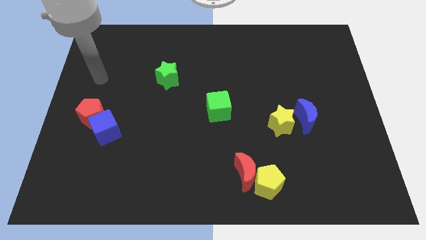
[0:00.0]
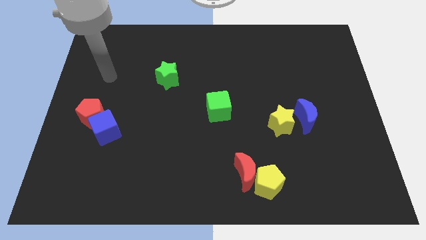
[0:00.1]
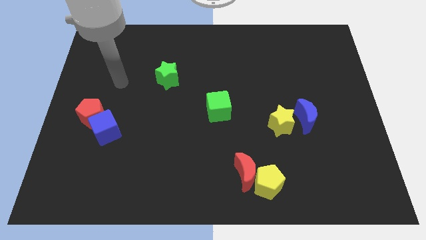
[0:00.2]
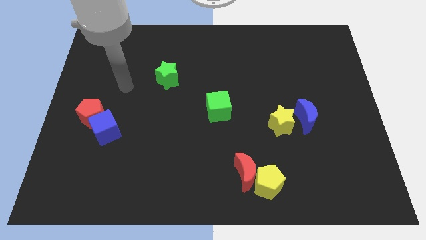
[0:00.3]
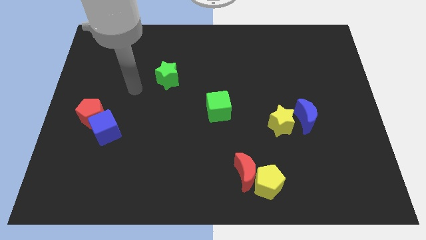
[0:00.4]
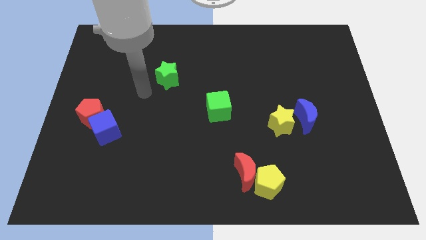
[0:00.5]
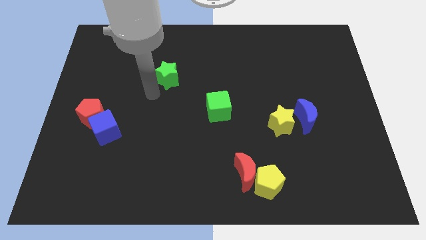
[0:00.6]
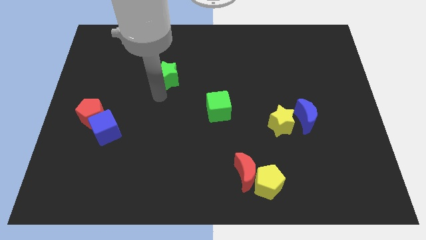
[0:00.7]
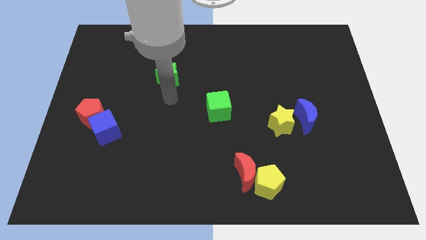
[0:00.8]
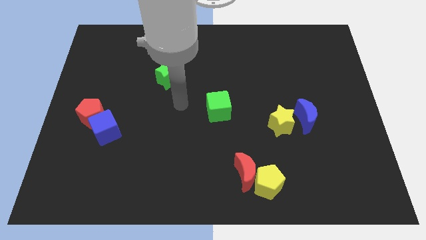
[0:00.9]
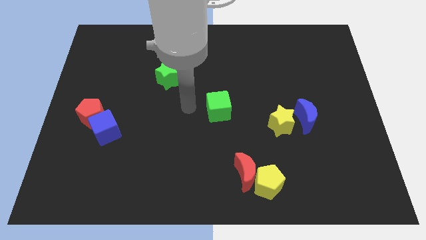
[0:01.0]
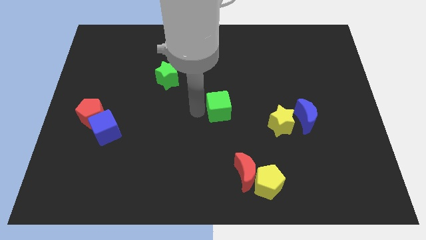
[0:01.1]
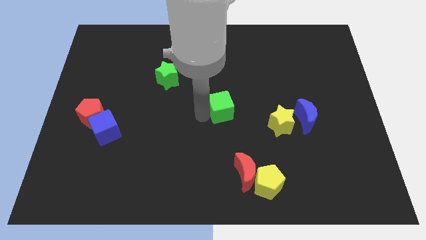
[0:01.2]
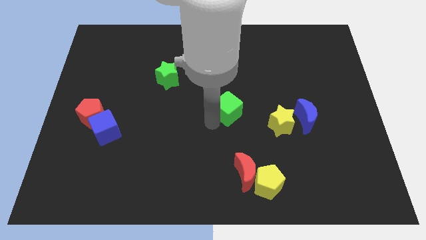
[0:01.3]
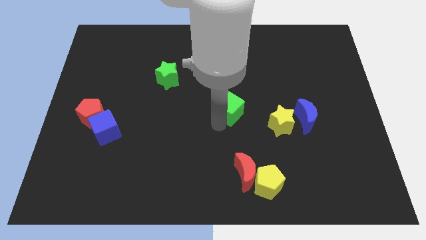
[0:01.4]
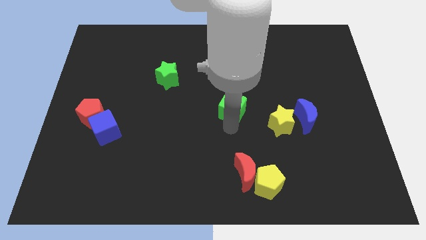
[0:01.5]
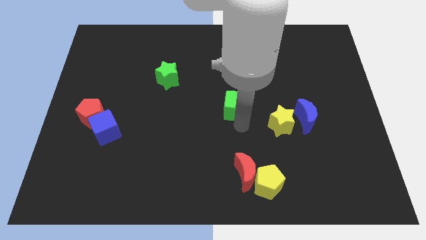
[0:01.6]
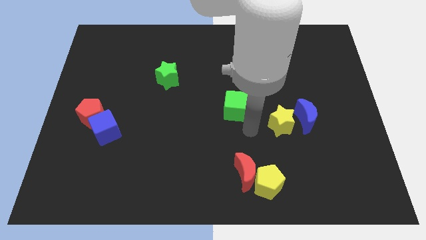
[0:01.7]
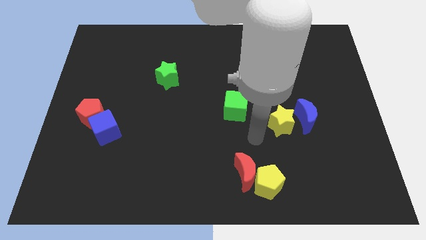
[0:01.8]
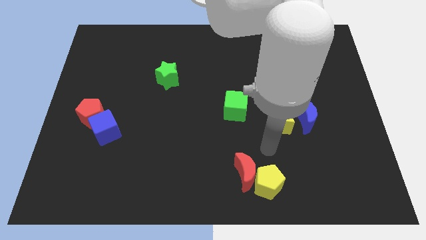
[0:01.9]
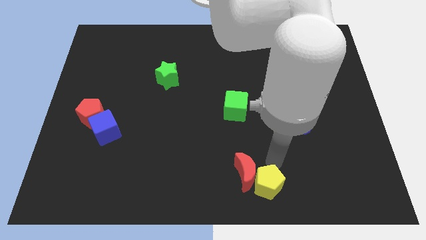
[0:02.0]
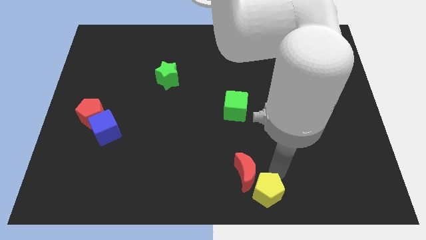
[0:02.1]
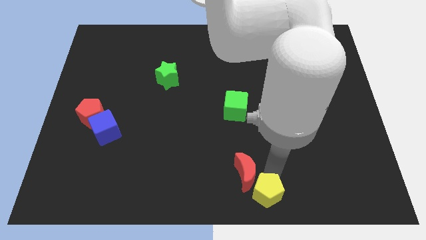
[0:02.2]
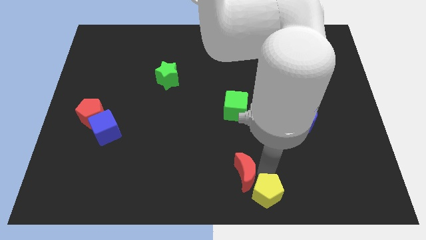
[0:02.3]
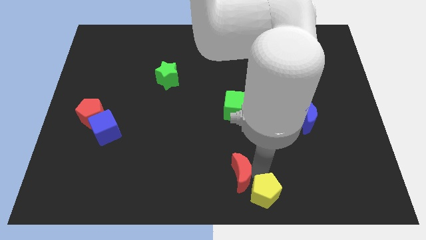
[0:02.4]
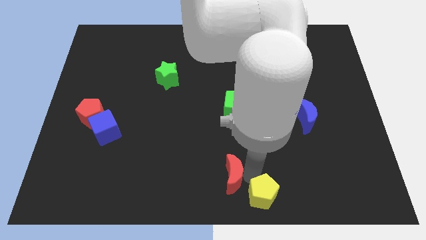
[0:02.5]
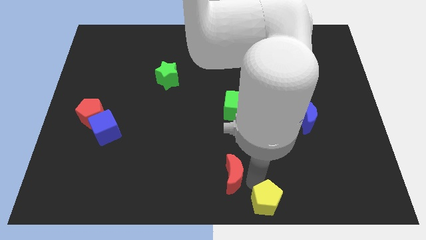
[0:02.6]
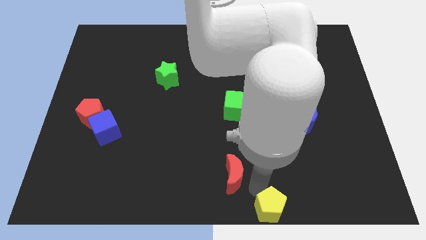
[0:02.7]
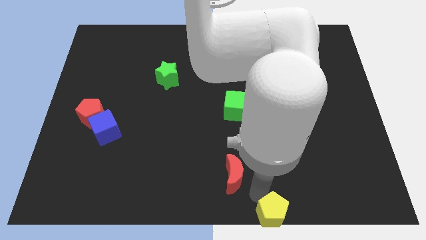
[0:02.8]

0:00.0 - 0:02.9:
pull the red moon apart from the yellow pentagon

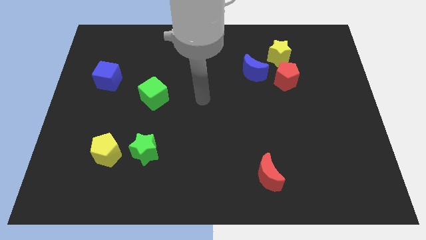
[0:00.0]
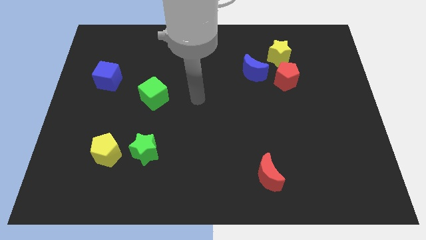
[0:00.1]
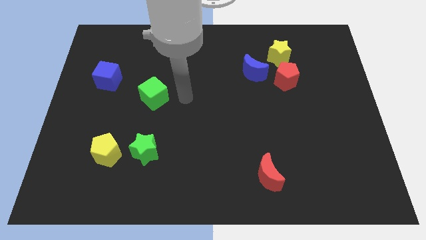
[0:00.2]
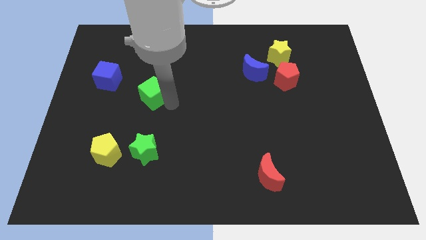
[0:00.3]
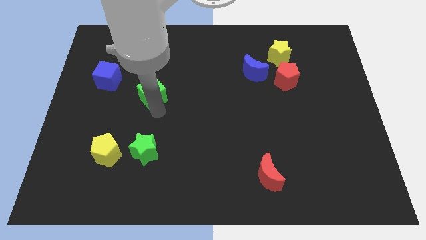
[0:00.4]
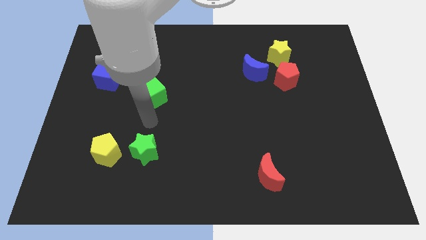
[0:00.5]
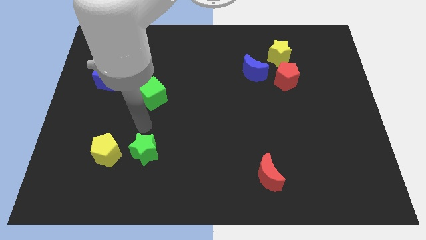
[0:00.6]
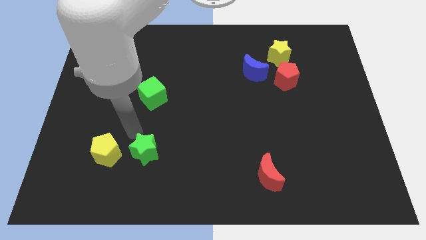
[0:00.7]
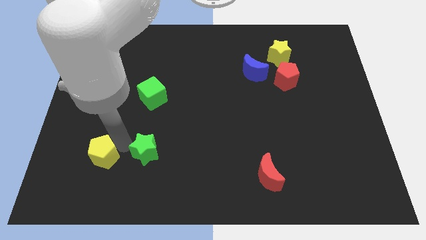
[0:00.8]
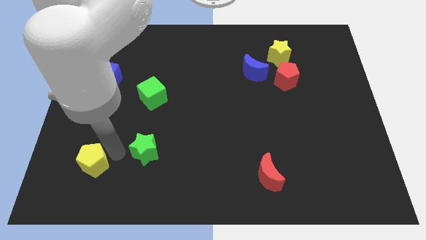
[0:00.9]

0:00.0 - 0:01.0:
move the green star away from the yellow pentagon

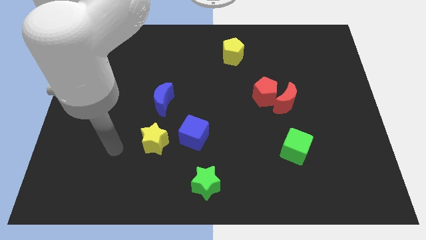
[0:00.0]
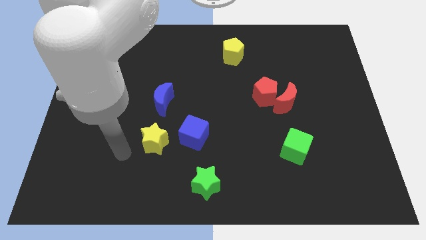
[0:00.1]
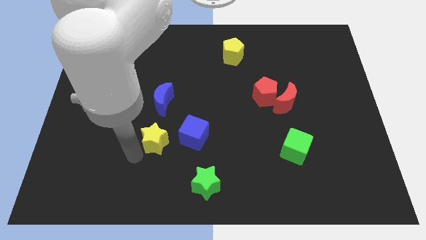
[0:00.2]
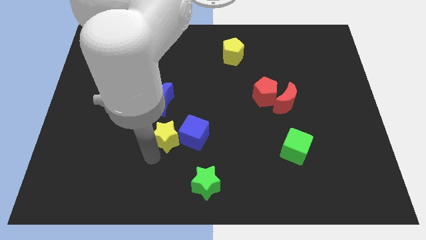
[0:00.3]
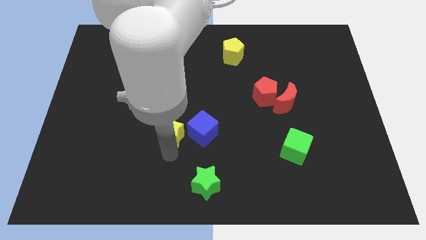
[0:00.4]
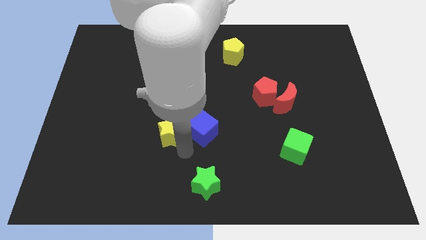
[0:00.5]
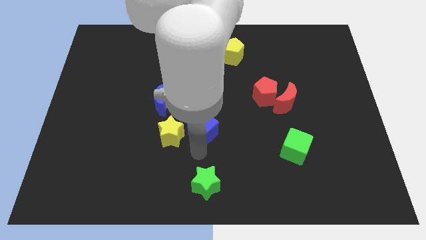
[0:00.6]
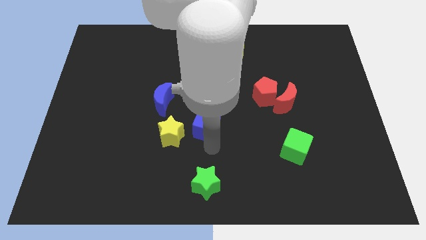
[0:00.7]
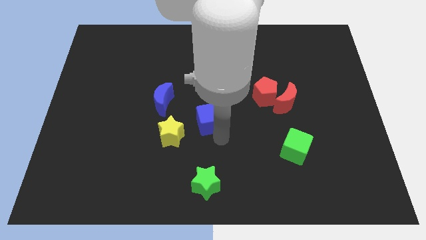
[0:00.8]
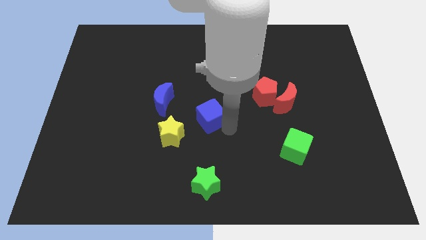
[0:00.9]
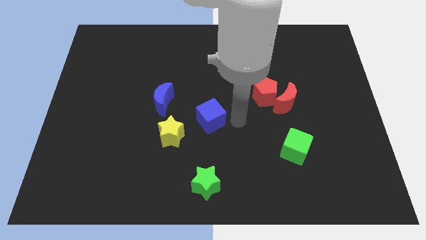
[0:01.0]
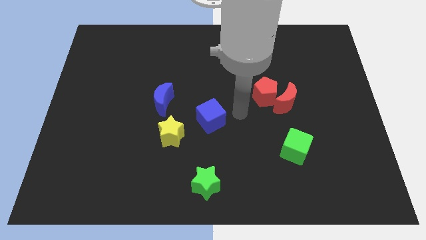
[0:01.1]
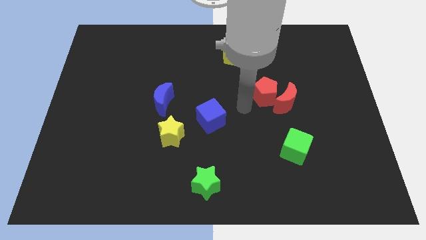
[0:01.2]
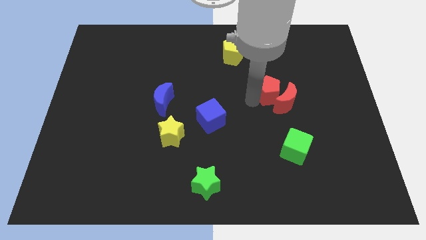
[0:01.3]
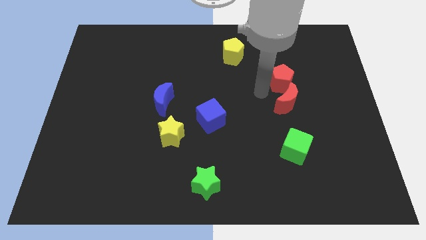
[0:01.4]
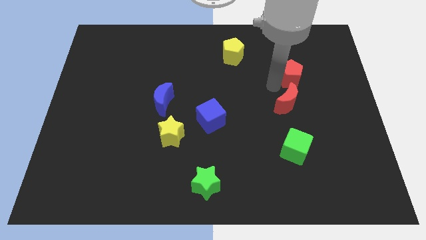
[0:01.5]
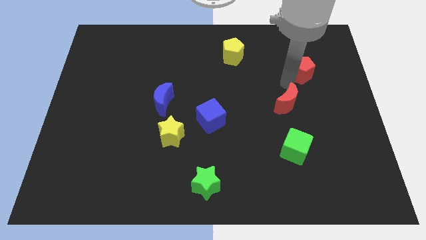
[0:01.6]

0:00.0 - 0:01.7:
separate the red moon from the red pentagon

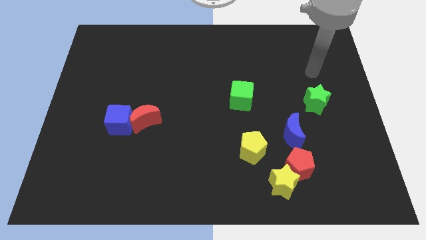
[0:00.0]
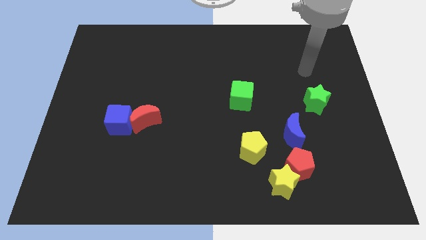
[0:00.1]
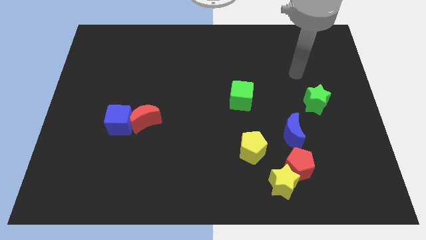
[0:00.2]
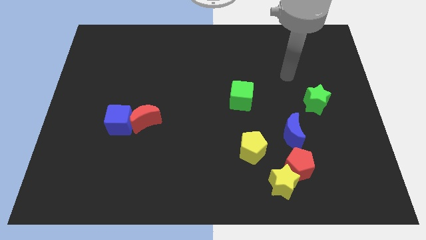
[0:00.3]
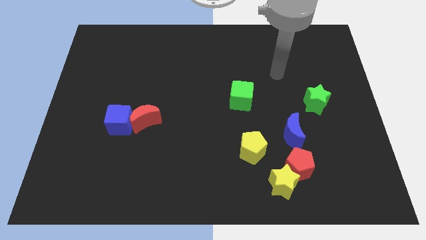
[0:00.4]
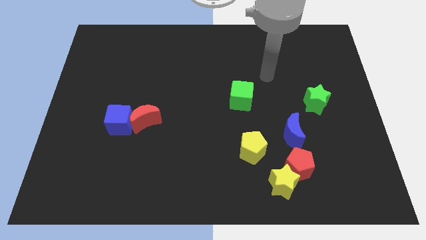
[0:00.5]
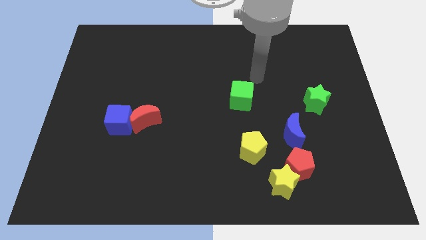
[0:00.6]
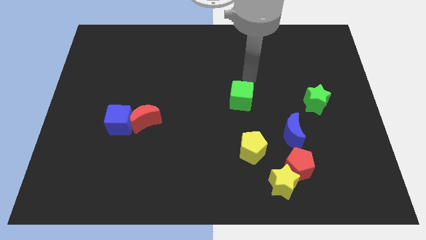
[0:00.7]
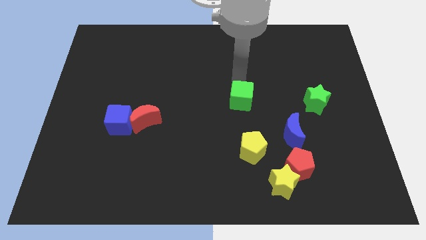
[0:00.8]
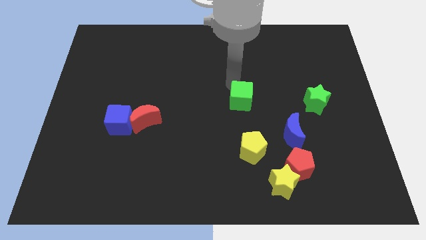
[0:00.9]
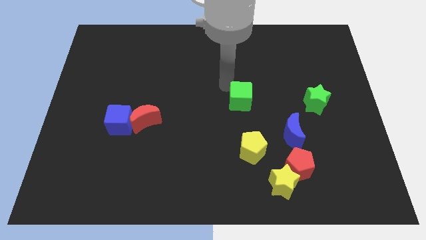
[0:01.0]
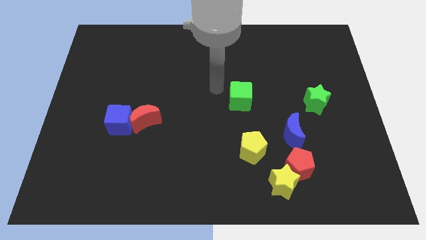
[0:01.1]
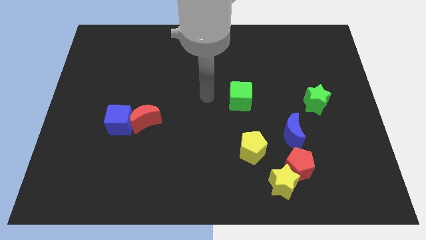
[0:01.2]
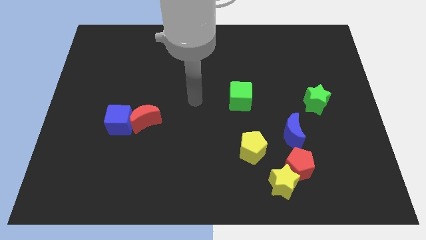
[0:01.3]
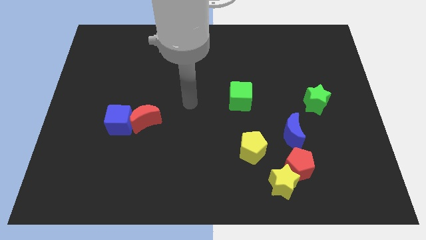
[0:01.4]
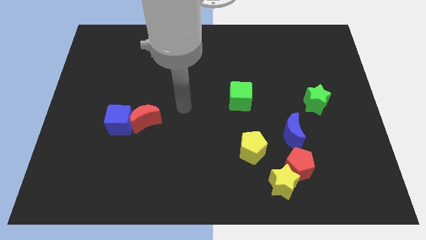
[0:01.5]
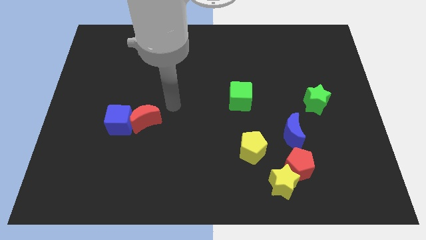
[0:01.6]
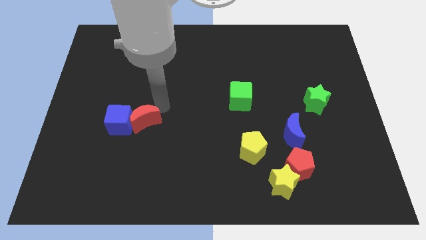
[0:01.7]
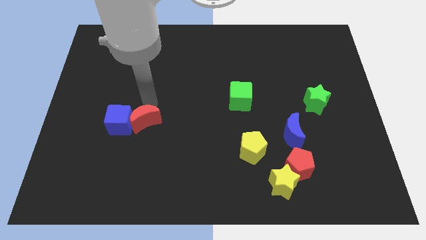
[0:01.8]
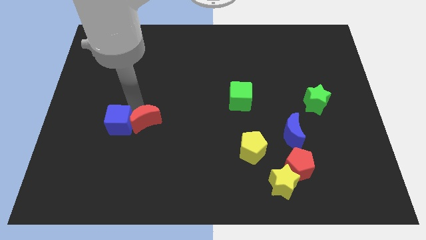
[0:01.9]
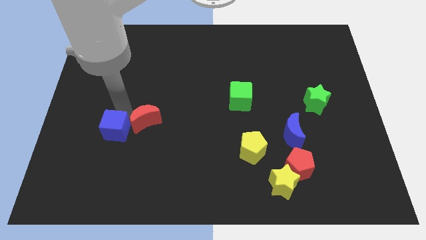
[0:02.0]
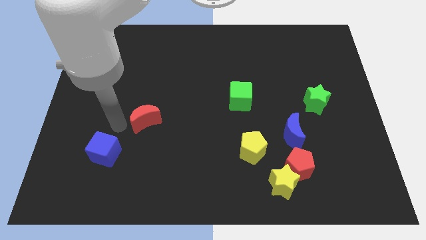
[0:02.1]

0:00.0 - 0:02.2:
pull the red moon apart from the blue cube

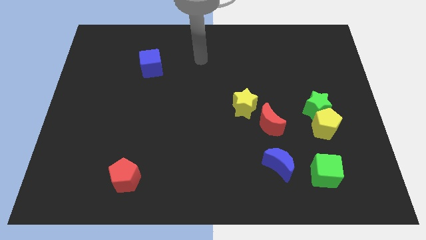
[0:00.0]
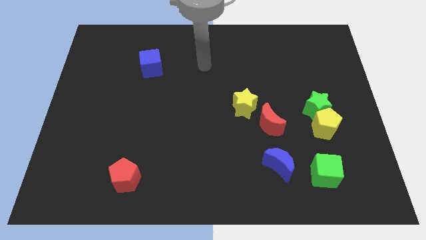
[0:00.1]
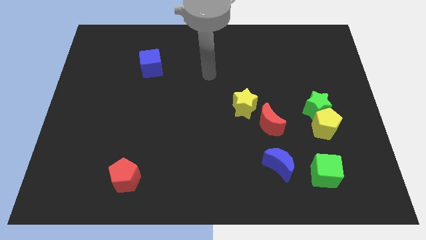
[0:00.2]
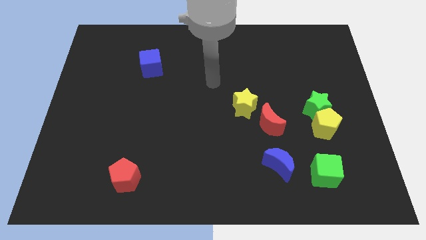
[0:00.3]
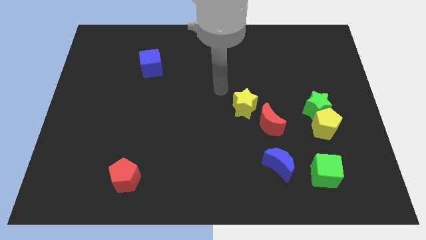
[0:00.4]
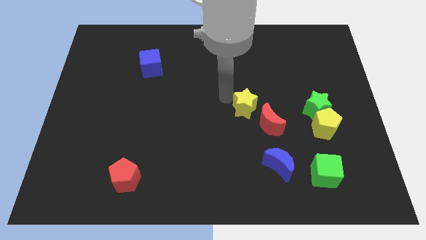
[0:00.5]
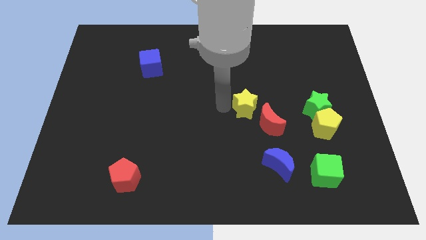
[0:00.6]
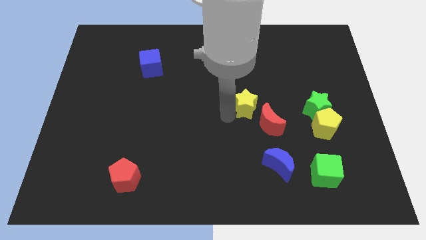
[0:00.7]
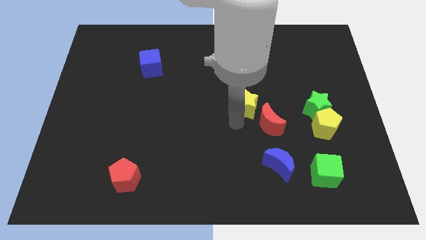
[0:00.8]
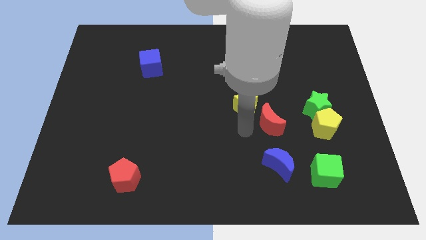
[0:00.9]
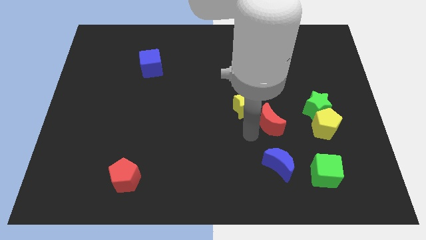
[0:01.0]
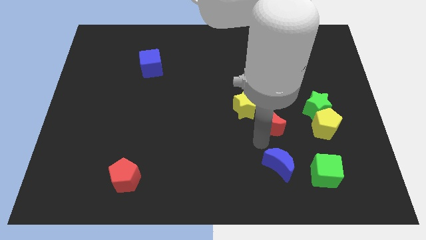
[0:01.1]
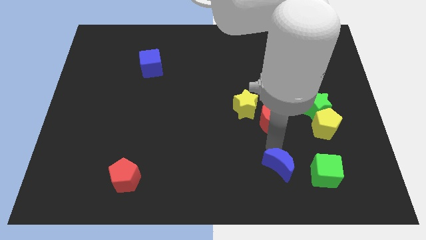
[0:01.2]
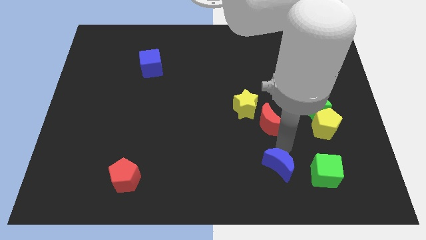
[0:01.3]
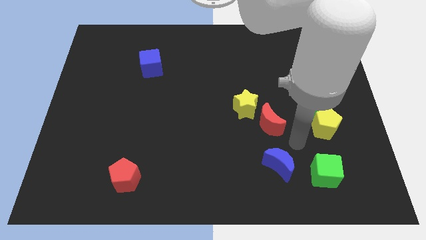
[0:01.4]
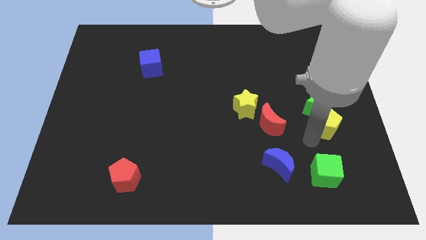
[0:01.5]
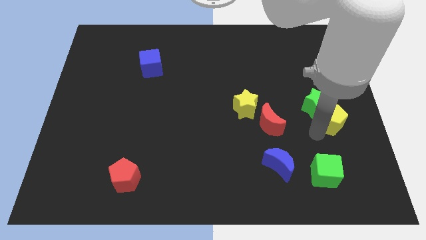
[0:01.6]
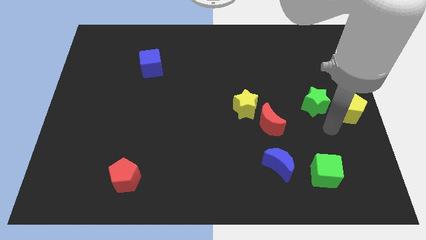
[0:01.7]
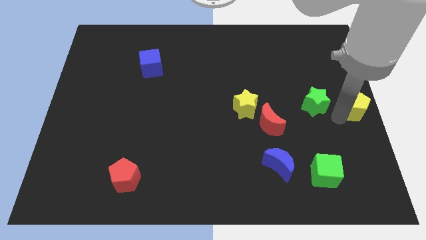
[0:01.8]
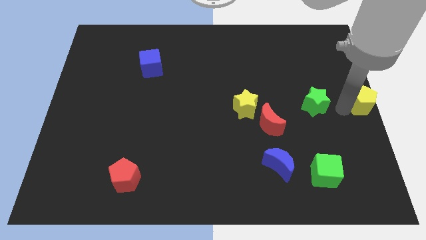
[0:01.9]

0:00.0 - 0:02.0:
pull the green star apart from the yellow pentagon
